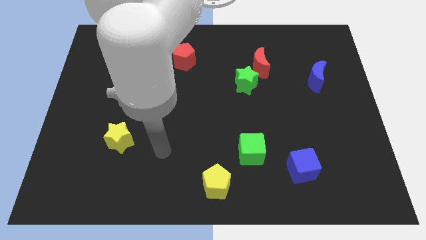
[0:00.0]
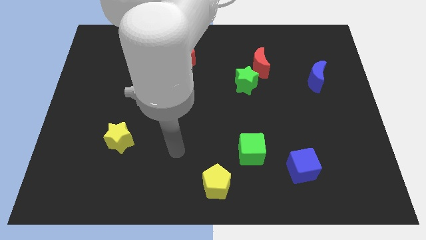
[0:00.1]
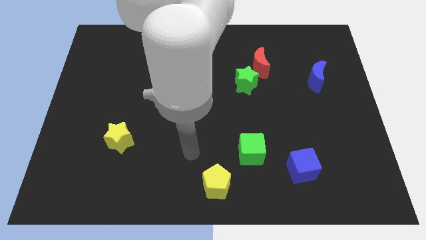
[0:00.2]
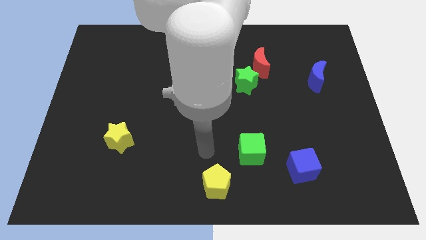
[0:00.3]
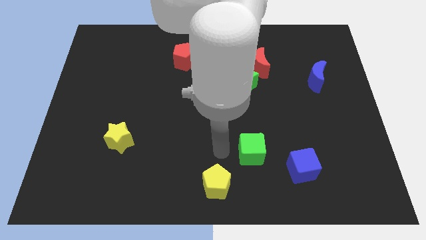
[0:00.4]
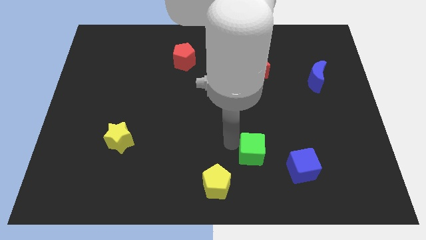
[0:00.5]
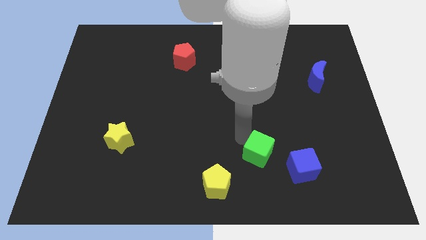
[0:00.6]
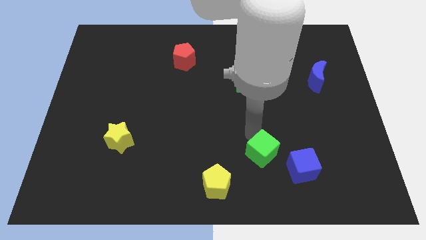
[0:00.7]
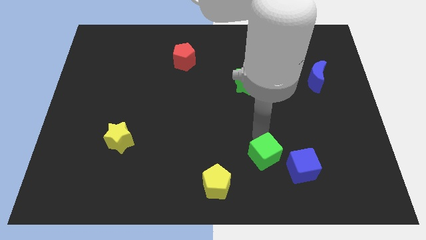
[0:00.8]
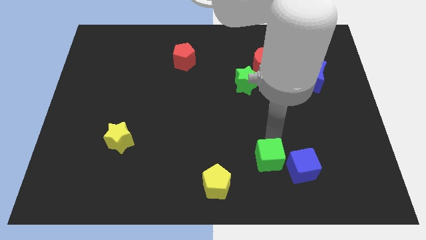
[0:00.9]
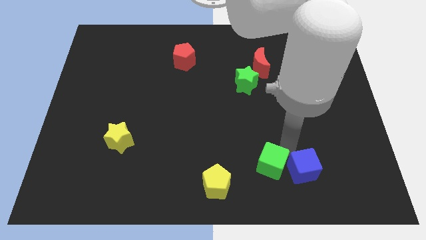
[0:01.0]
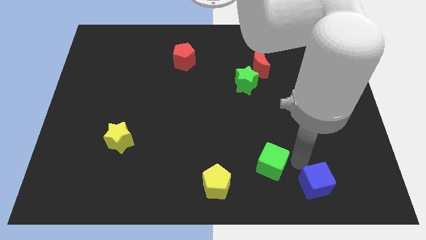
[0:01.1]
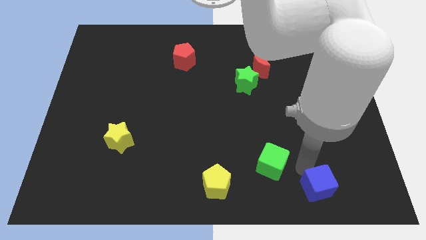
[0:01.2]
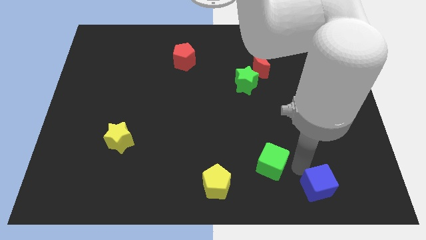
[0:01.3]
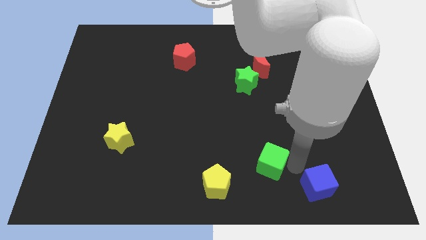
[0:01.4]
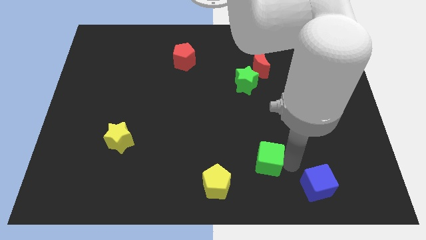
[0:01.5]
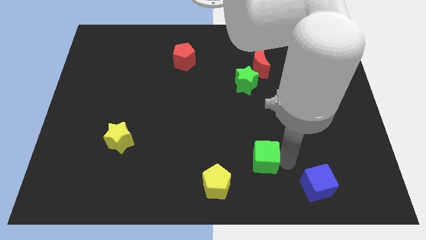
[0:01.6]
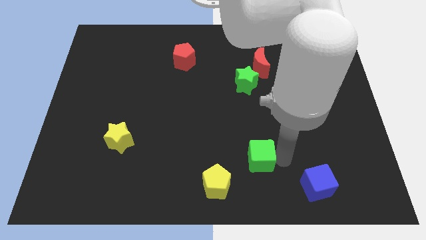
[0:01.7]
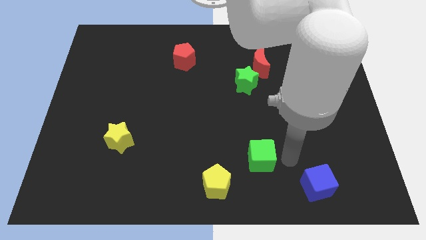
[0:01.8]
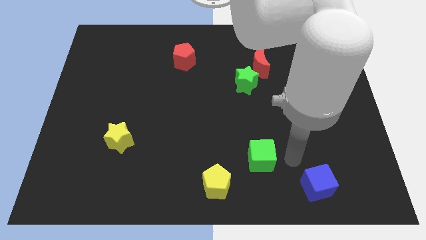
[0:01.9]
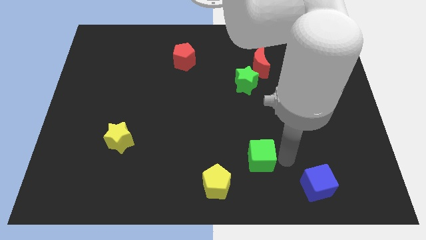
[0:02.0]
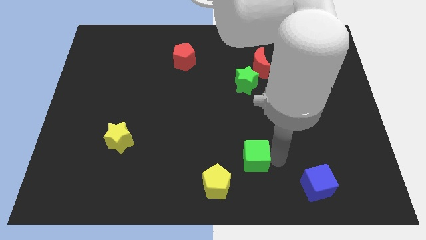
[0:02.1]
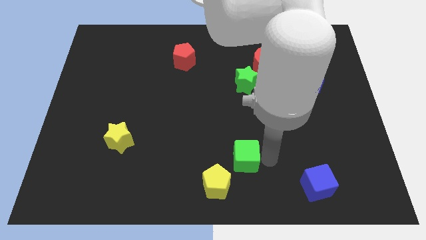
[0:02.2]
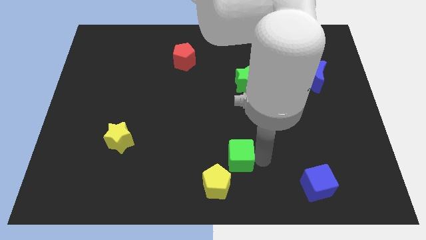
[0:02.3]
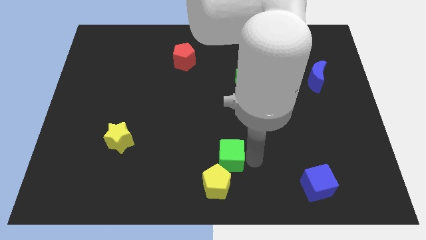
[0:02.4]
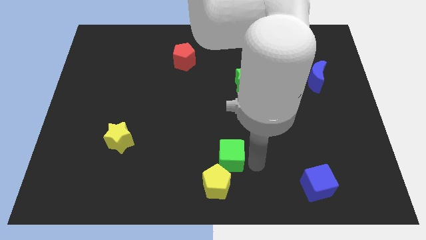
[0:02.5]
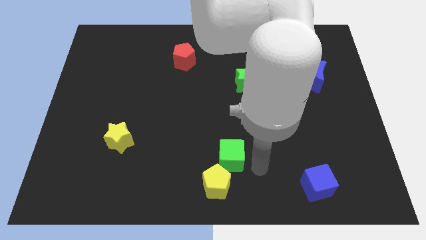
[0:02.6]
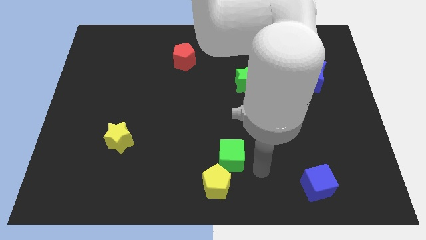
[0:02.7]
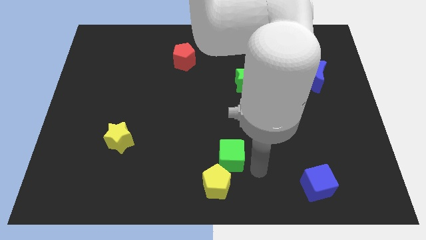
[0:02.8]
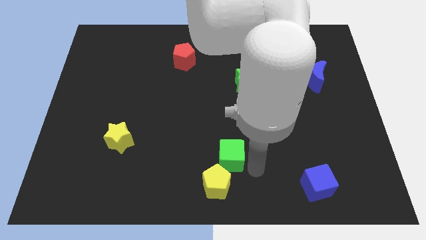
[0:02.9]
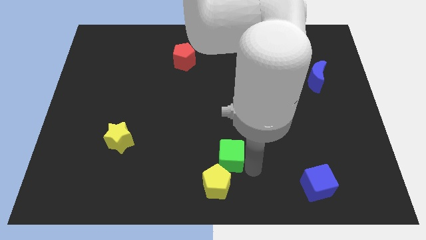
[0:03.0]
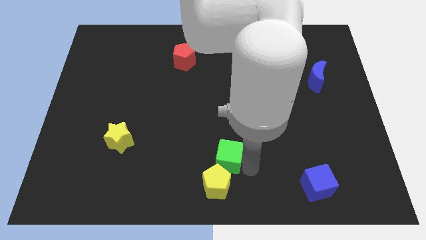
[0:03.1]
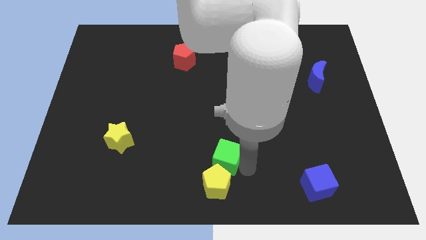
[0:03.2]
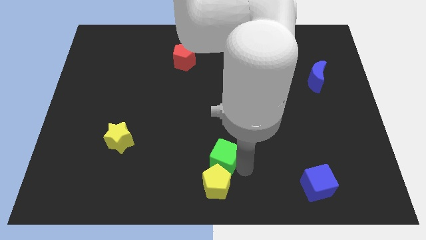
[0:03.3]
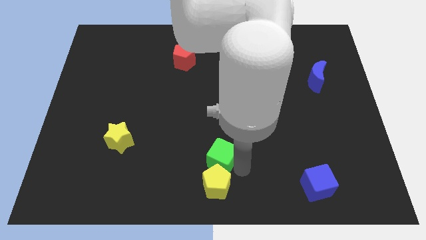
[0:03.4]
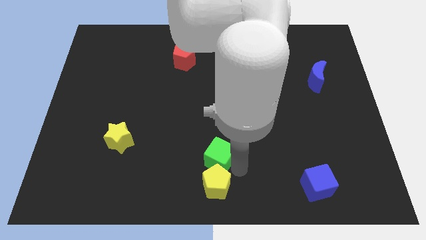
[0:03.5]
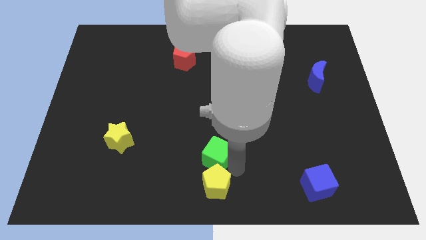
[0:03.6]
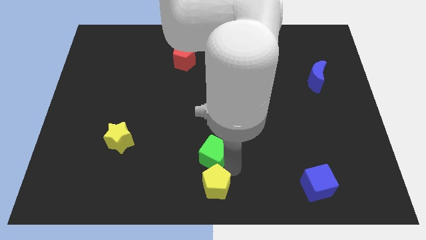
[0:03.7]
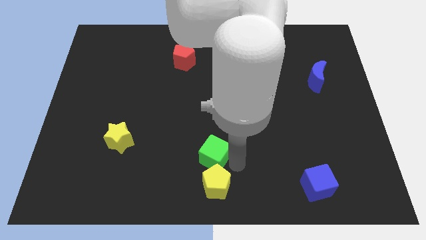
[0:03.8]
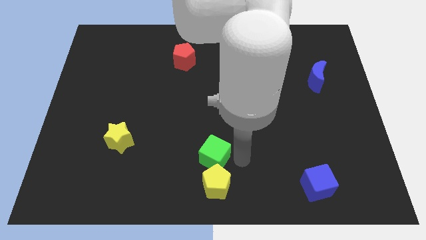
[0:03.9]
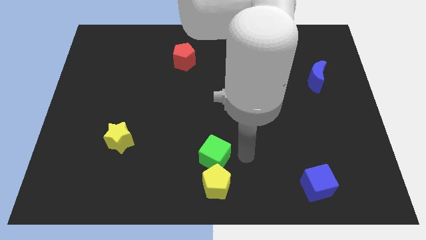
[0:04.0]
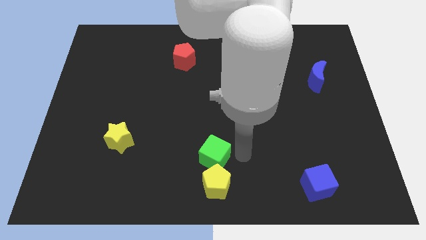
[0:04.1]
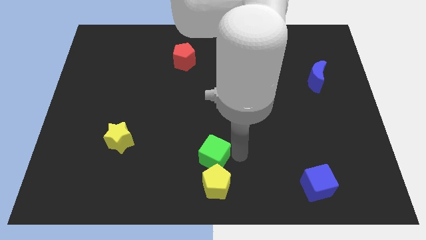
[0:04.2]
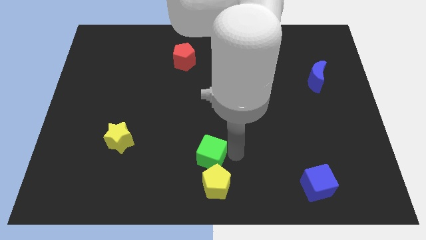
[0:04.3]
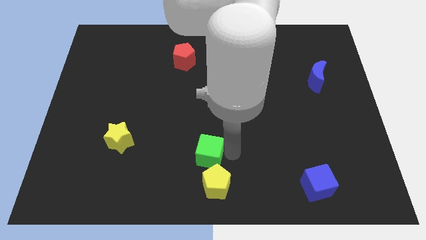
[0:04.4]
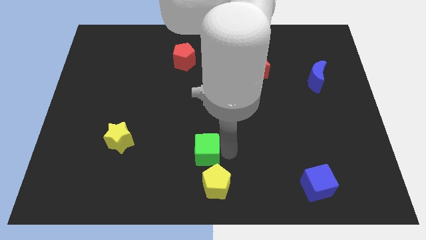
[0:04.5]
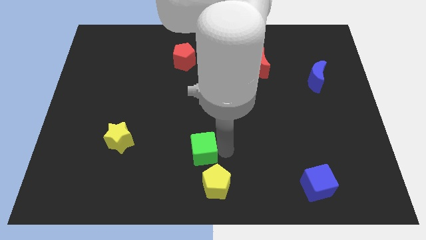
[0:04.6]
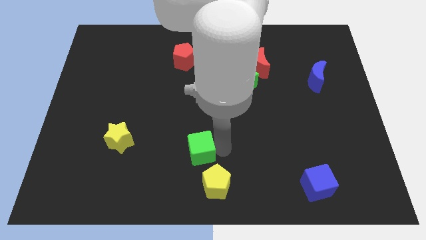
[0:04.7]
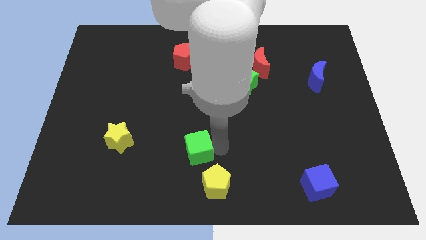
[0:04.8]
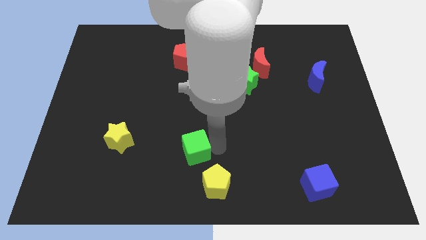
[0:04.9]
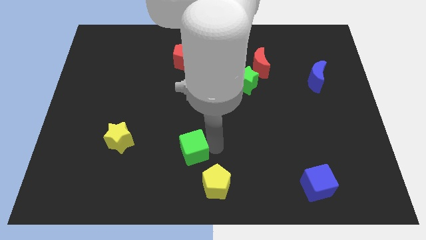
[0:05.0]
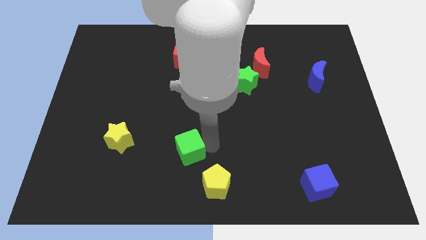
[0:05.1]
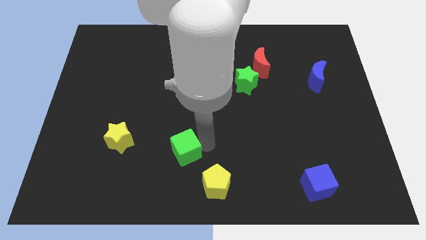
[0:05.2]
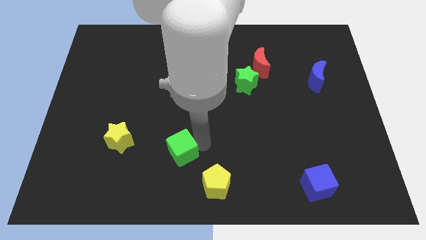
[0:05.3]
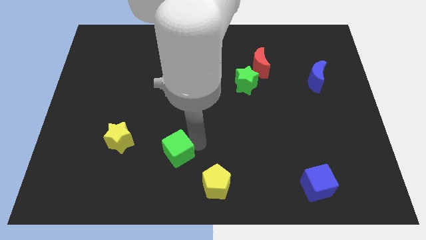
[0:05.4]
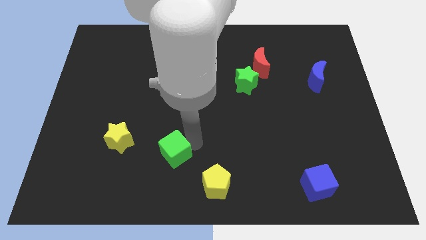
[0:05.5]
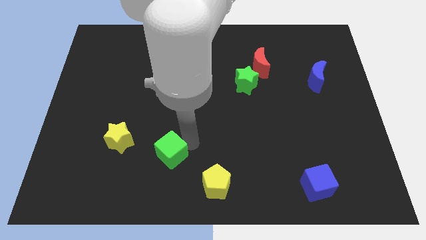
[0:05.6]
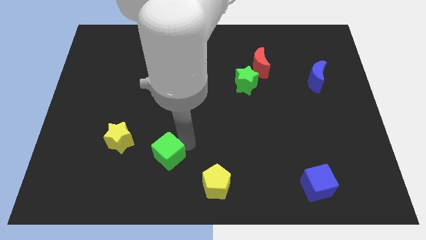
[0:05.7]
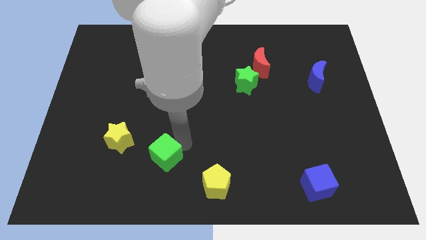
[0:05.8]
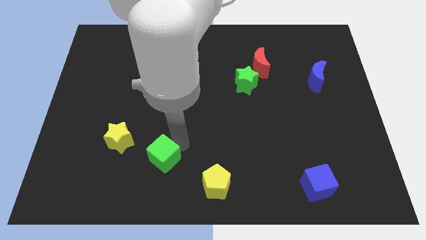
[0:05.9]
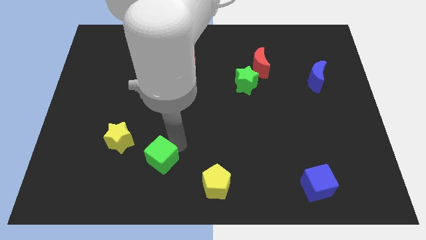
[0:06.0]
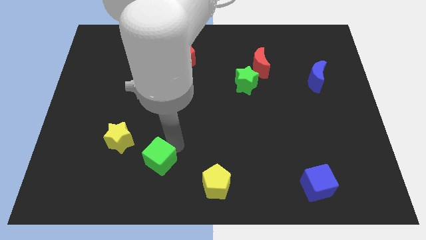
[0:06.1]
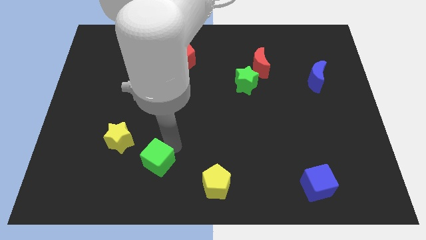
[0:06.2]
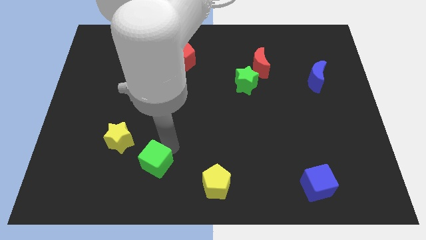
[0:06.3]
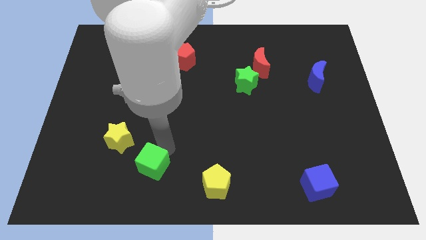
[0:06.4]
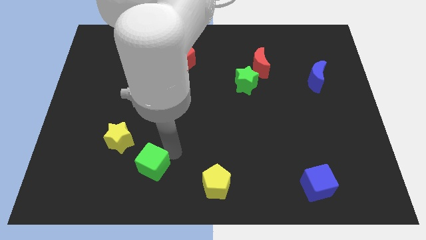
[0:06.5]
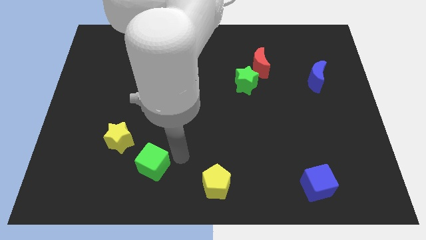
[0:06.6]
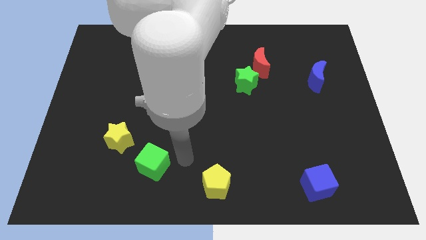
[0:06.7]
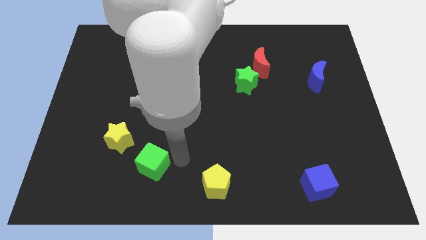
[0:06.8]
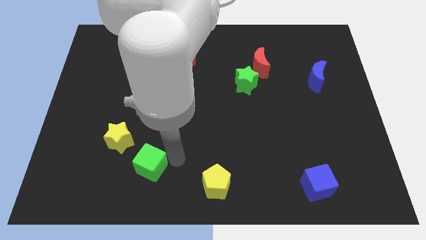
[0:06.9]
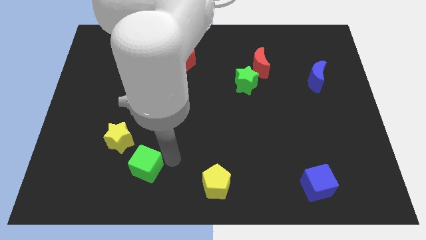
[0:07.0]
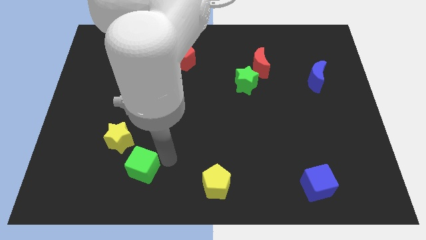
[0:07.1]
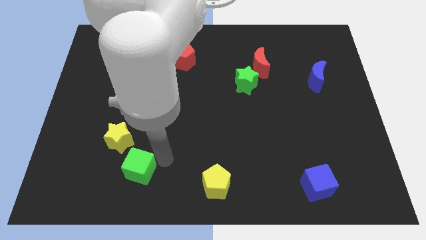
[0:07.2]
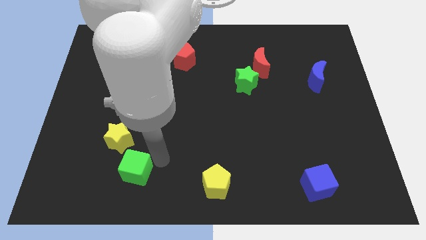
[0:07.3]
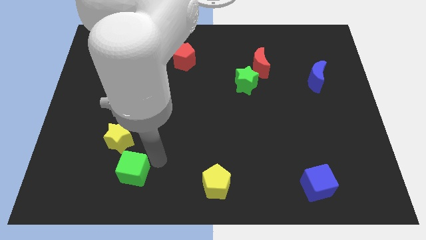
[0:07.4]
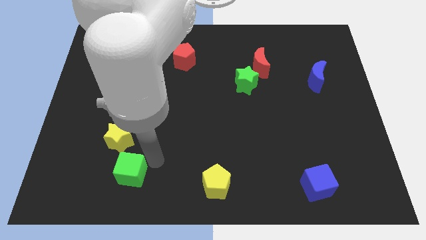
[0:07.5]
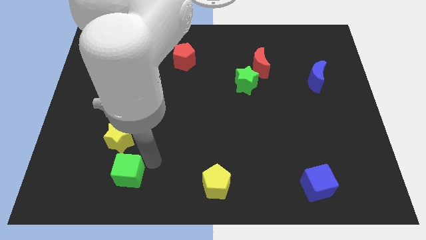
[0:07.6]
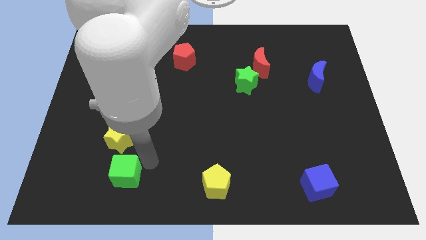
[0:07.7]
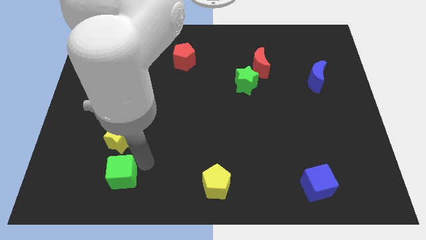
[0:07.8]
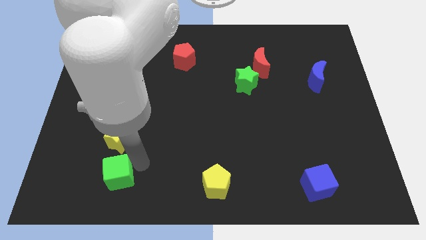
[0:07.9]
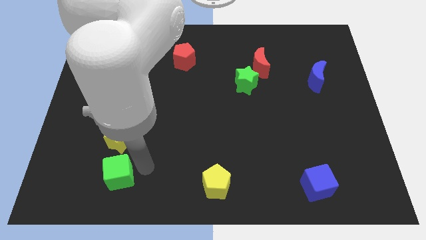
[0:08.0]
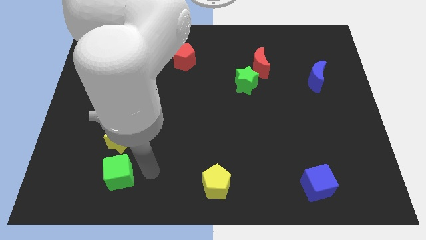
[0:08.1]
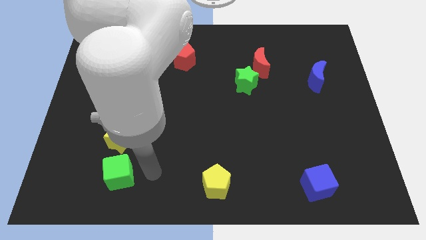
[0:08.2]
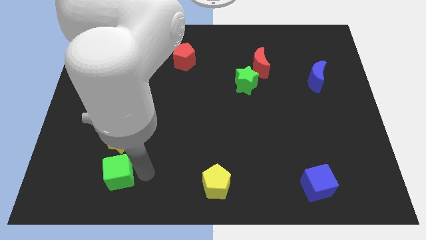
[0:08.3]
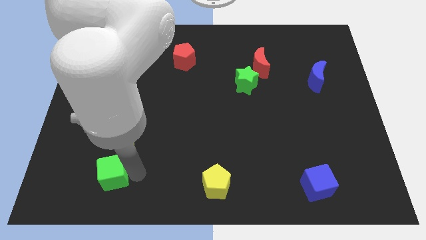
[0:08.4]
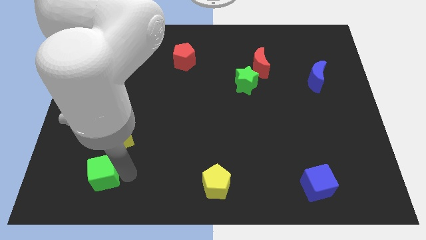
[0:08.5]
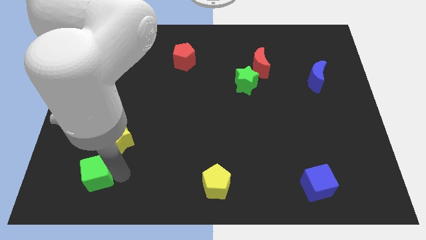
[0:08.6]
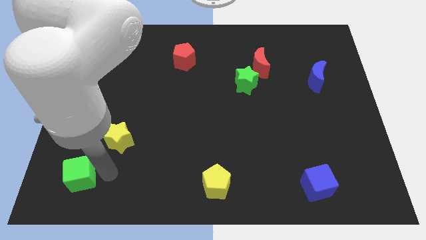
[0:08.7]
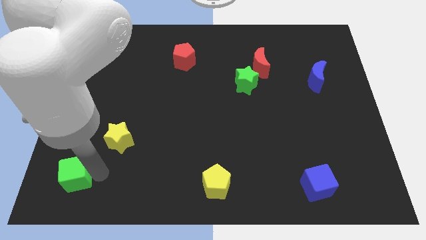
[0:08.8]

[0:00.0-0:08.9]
put the green cube to the lower left corner
